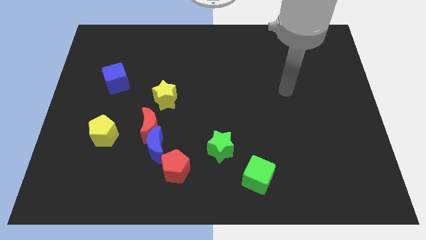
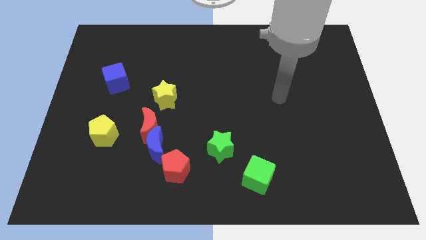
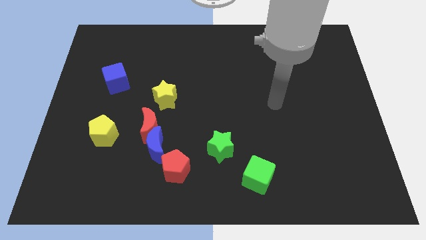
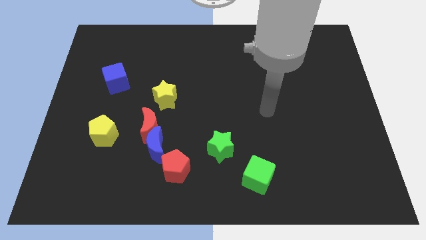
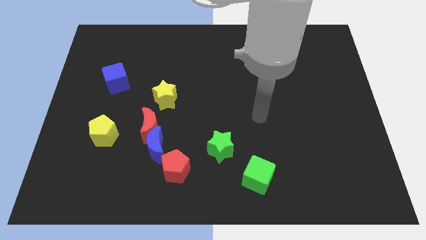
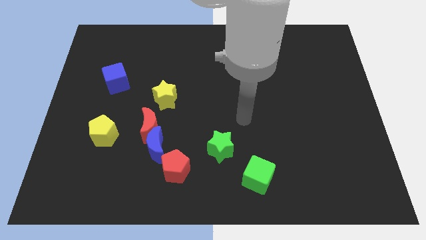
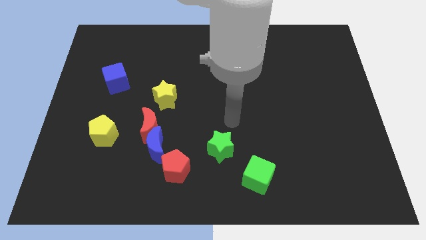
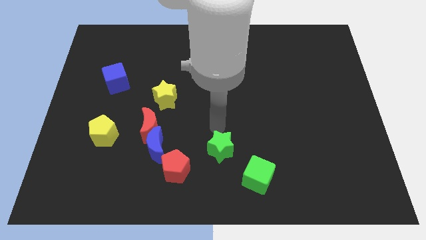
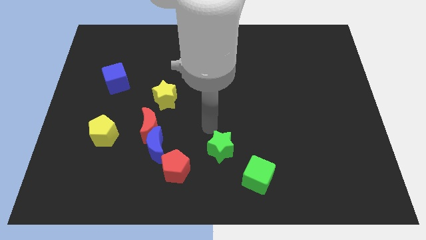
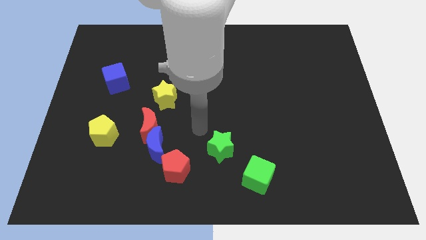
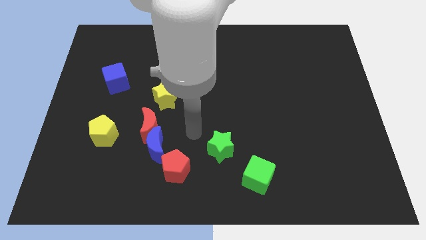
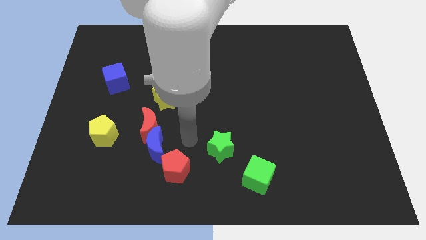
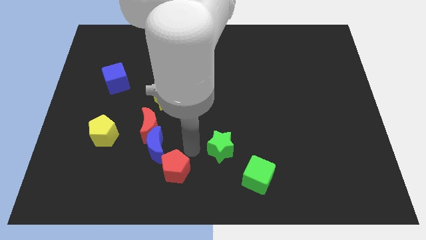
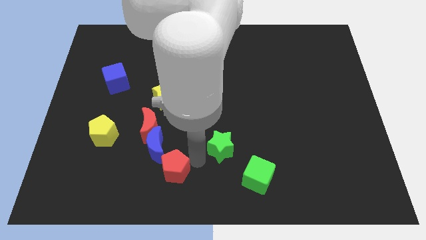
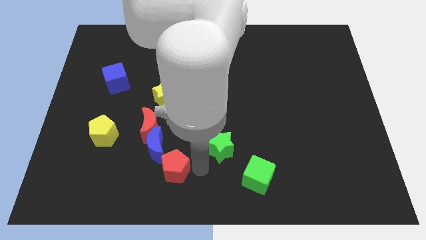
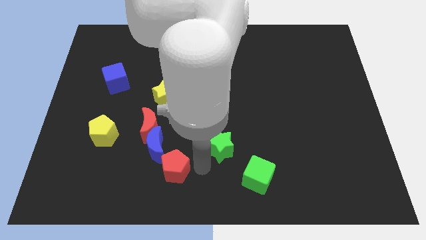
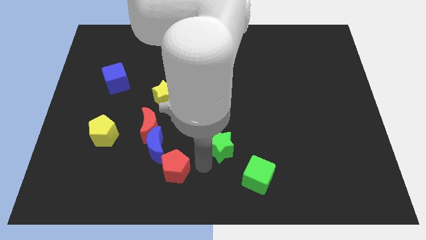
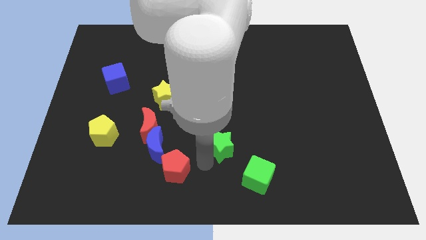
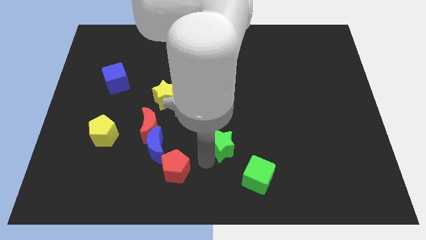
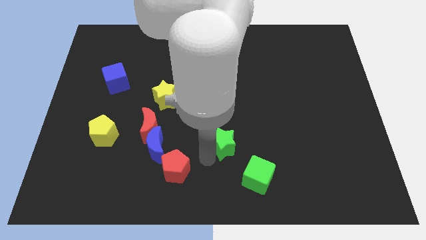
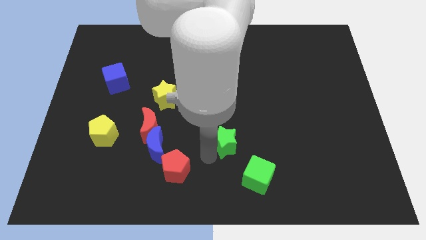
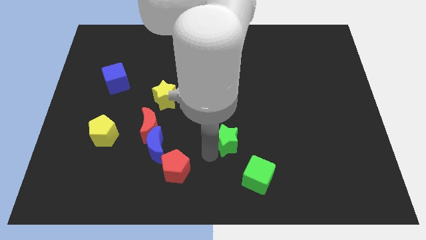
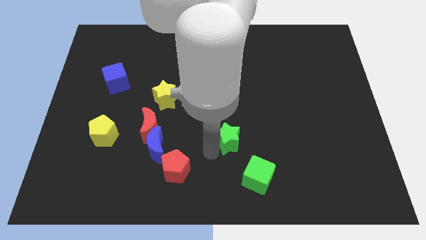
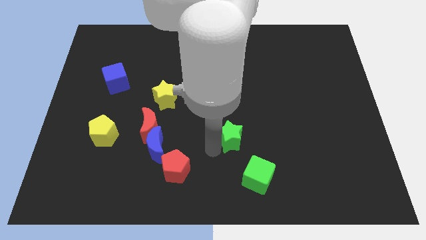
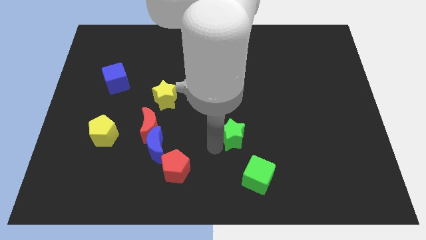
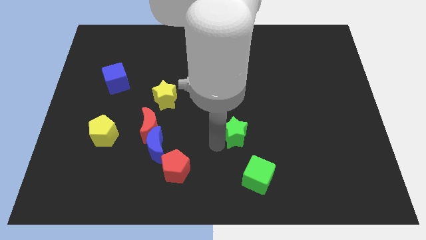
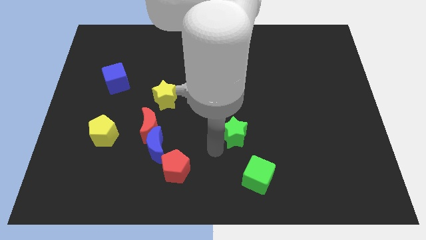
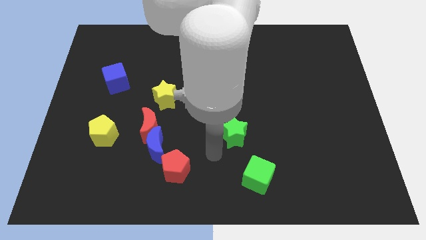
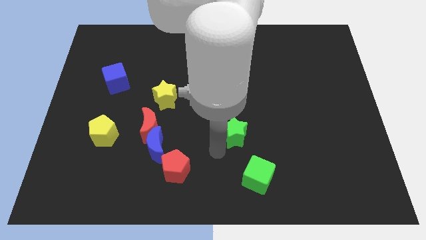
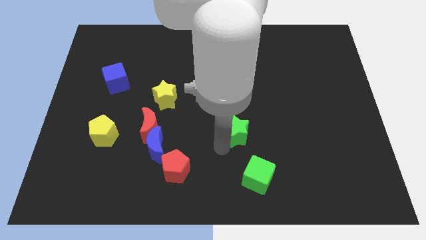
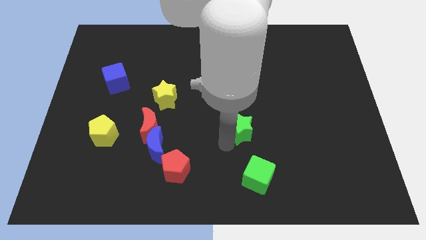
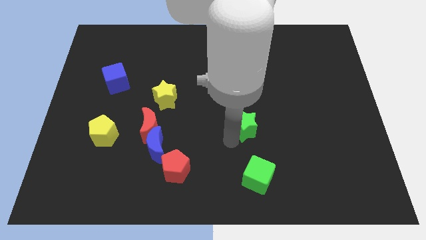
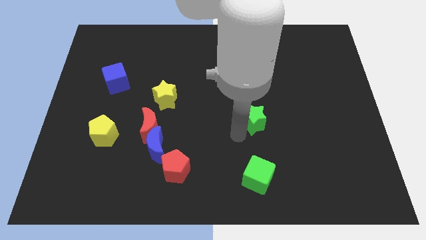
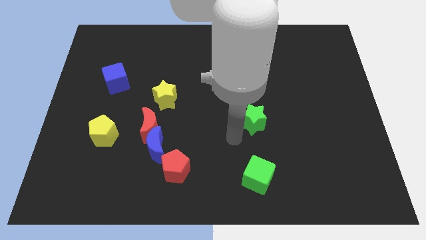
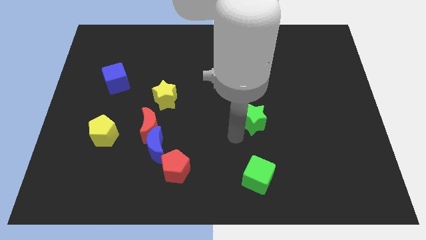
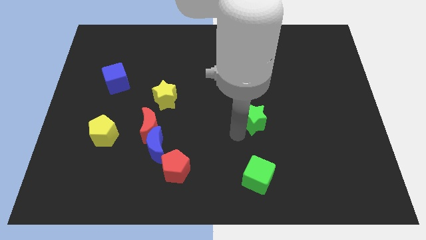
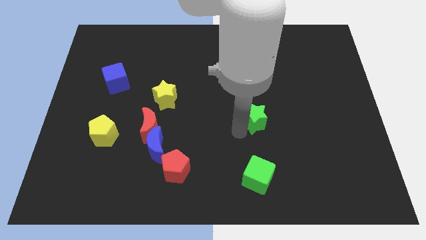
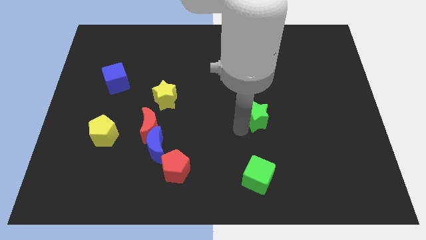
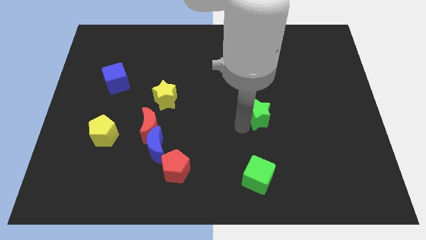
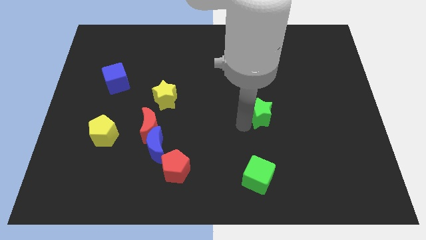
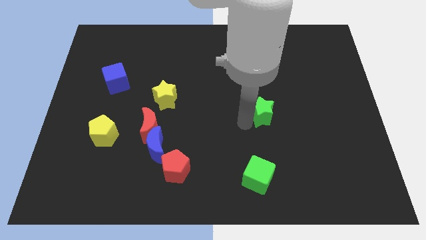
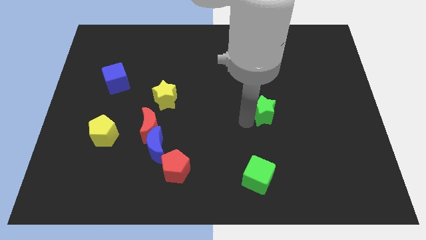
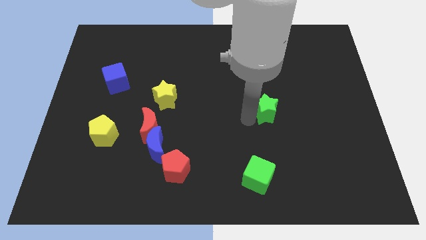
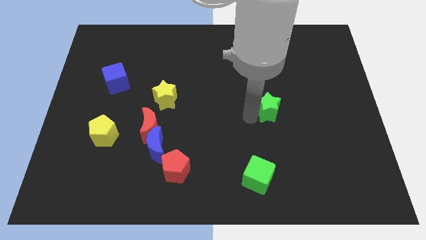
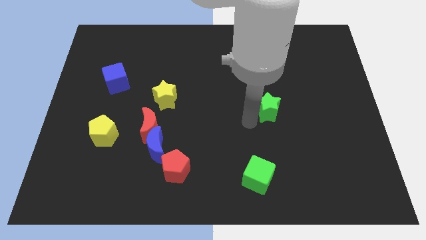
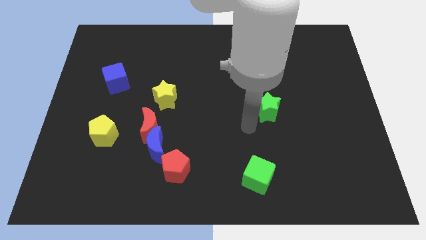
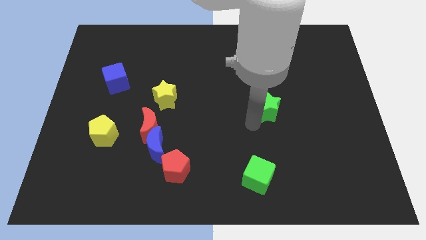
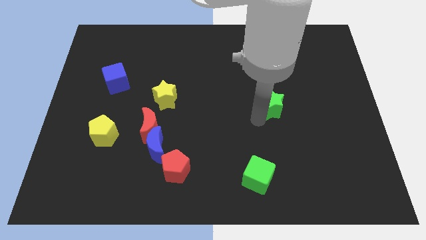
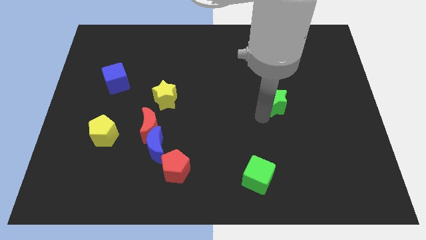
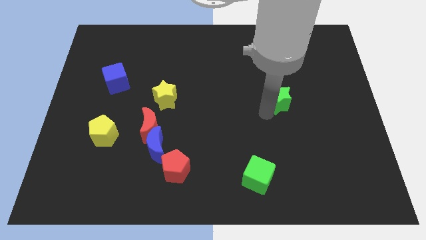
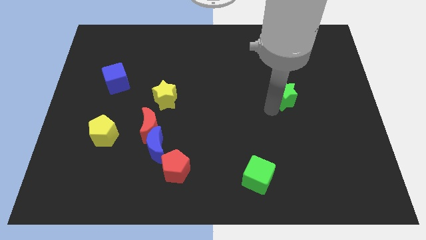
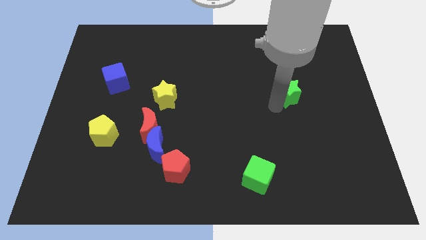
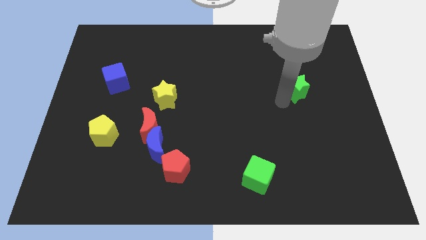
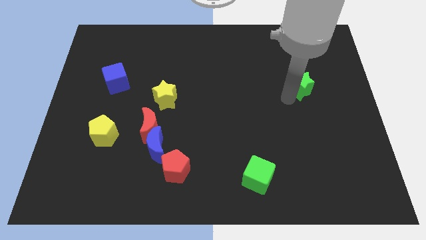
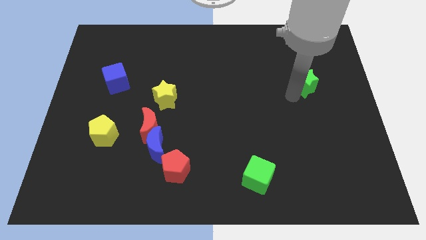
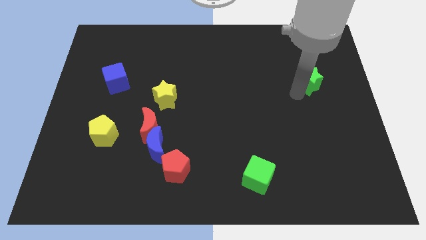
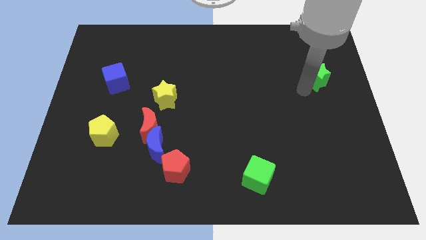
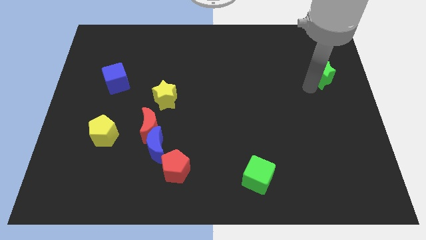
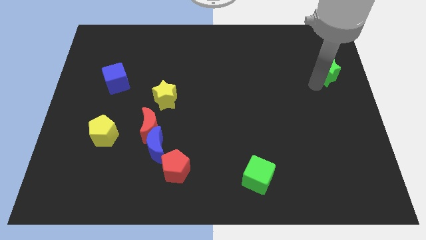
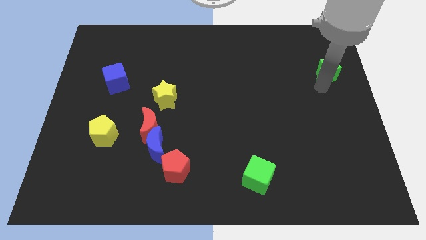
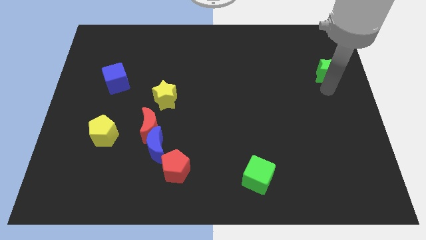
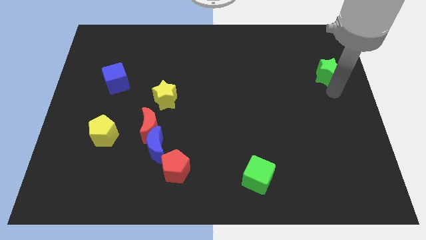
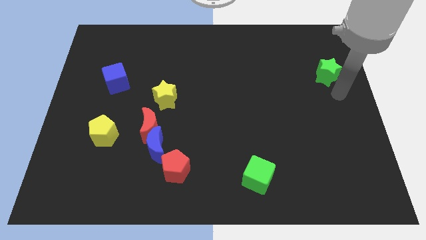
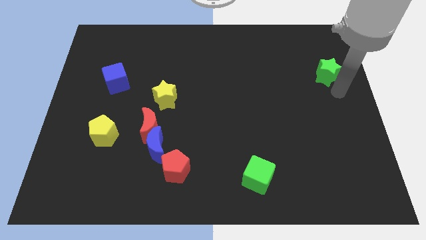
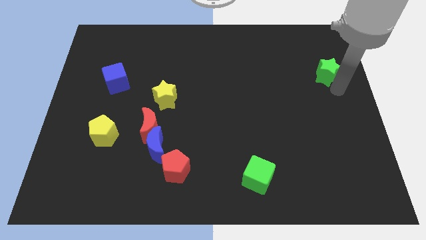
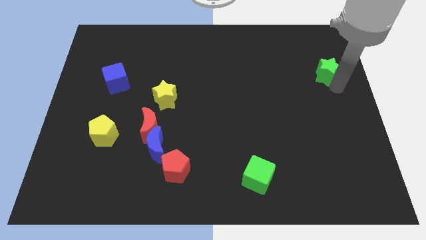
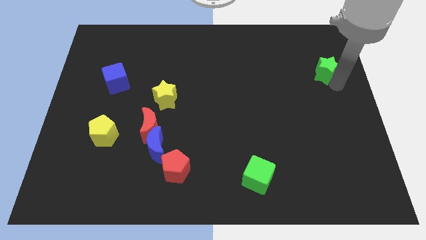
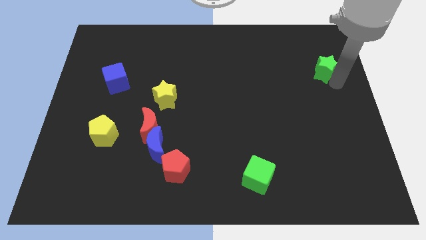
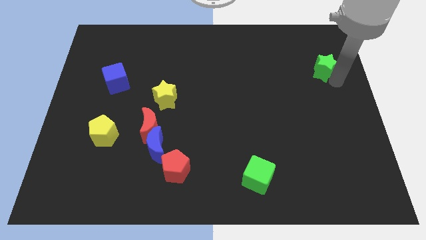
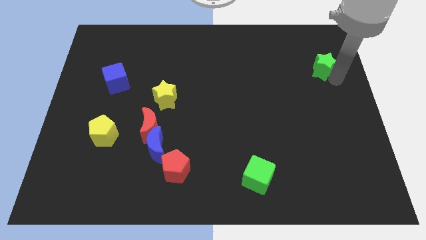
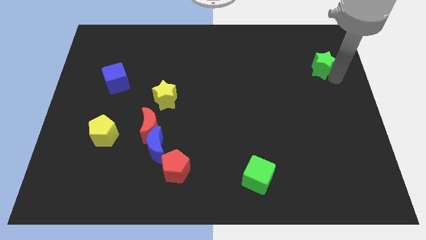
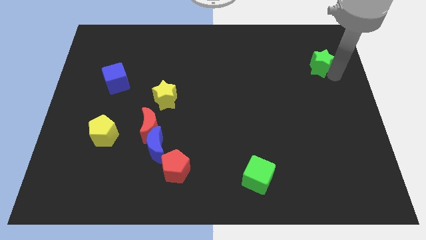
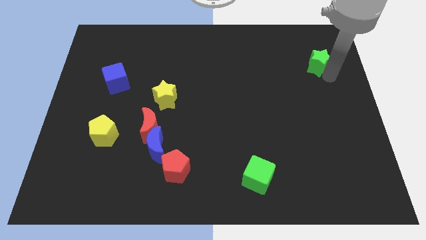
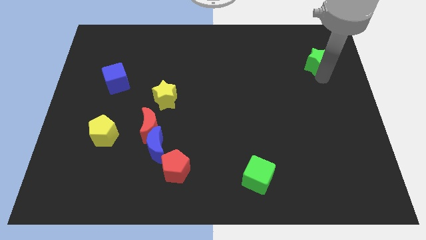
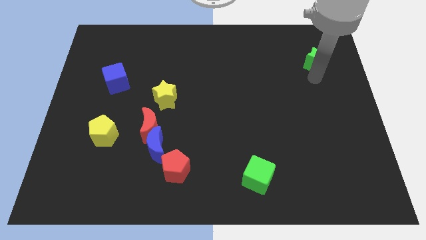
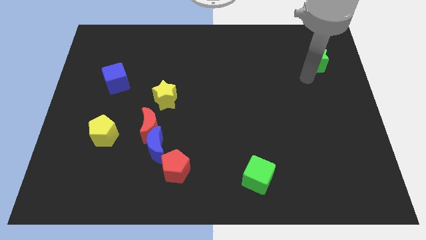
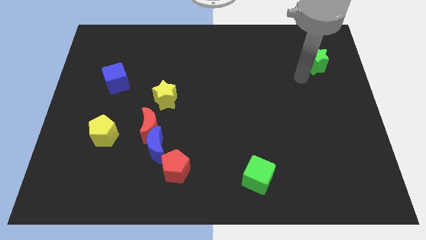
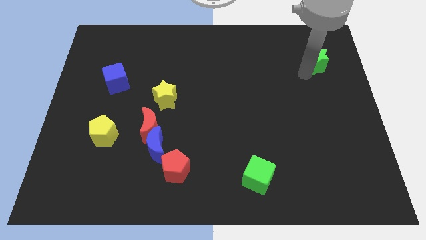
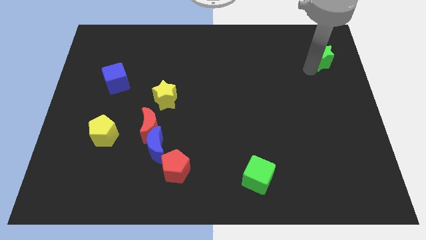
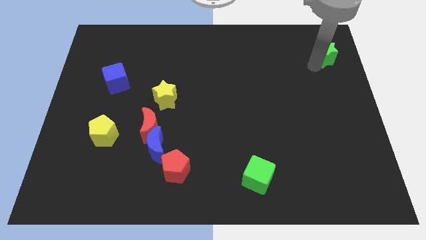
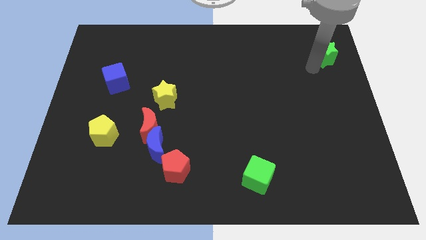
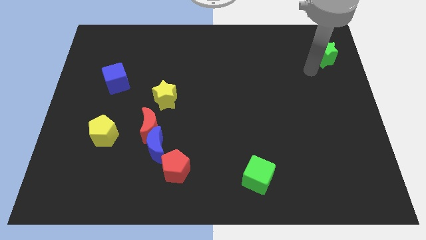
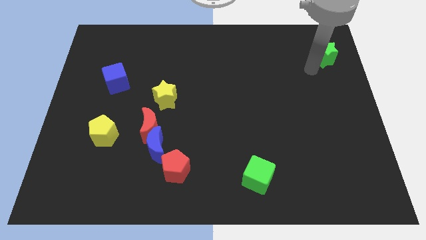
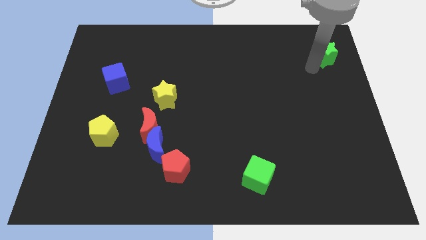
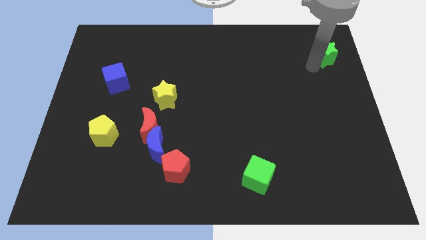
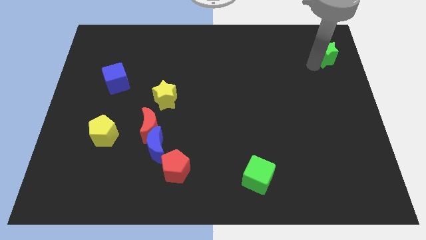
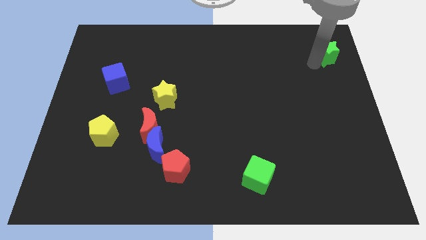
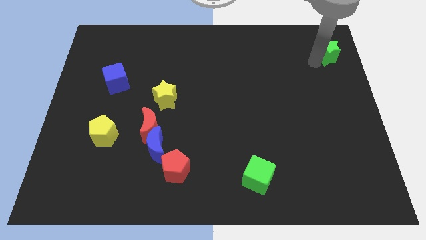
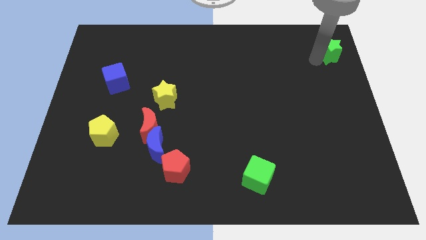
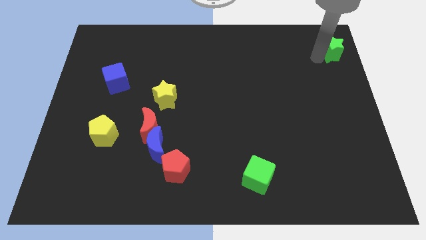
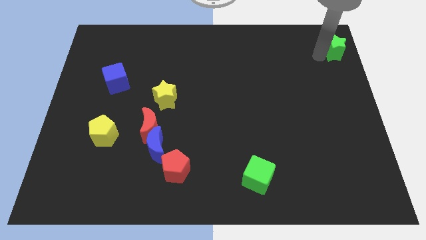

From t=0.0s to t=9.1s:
push the green star to the top right
